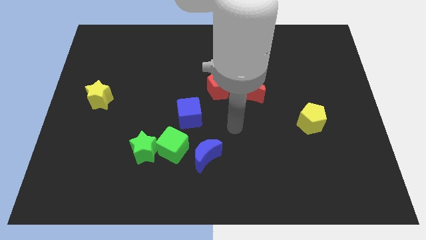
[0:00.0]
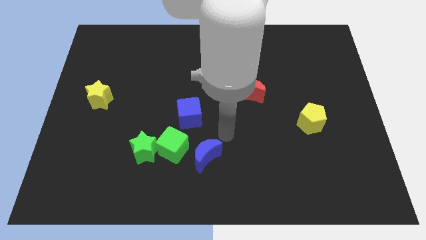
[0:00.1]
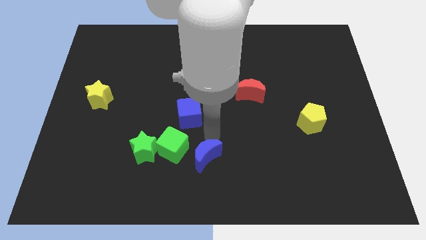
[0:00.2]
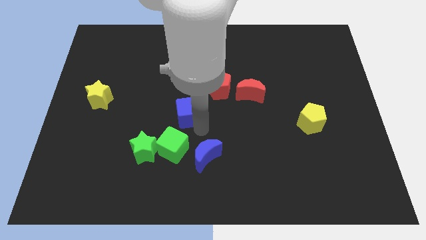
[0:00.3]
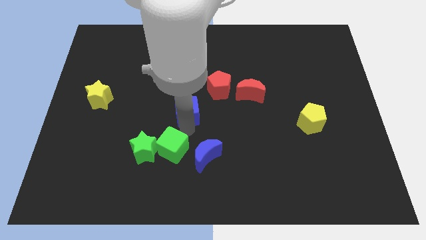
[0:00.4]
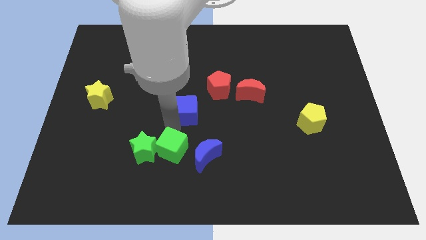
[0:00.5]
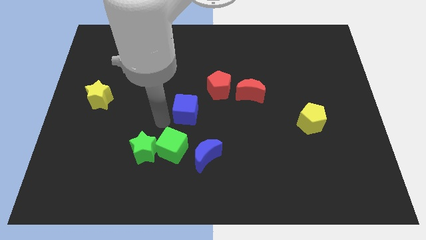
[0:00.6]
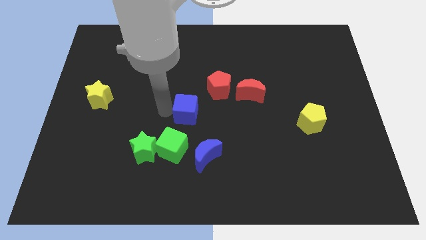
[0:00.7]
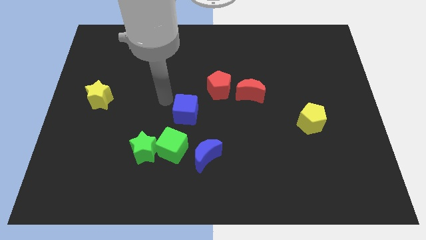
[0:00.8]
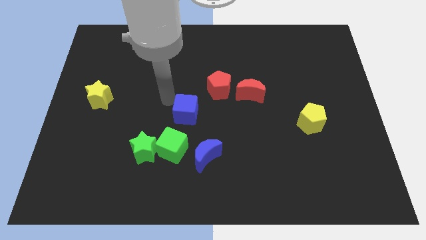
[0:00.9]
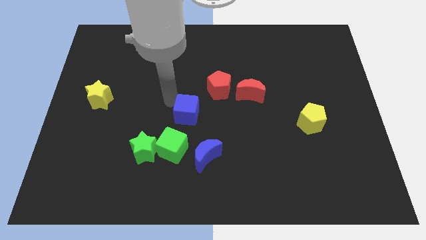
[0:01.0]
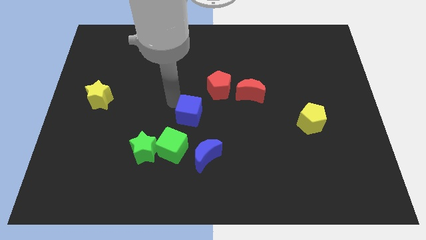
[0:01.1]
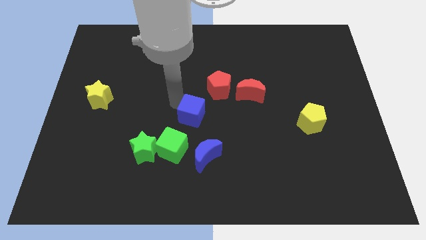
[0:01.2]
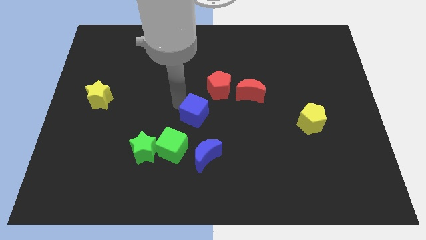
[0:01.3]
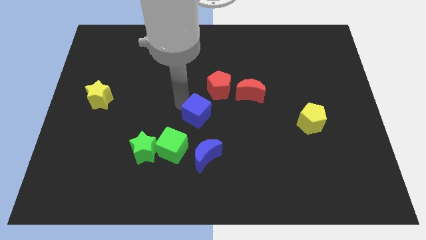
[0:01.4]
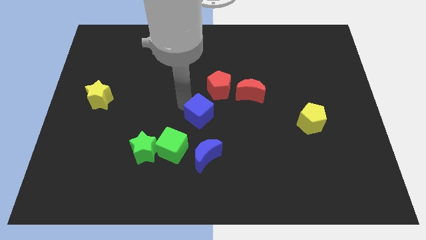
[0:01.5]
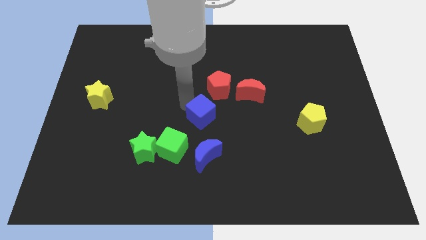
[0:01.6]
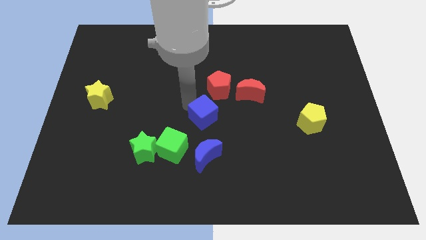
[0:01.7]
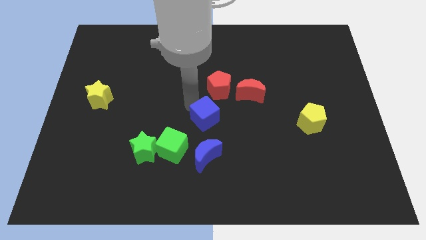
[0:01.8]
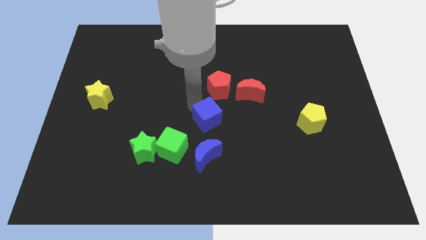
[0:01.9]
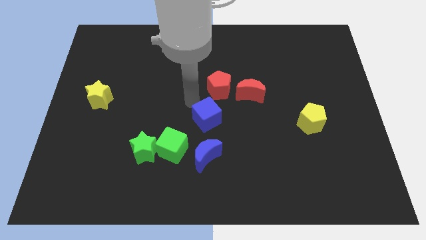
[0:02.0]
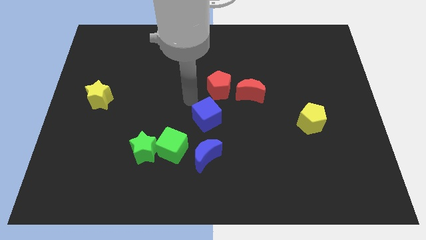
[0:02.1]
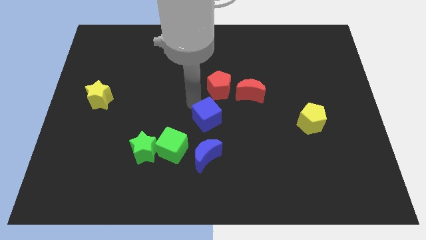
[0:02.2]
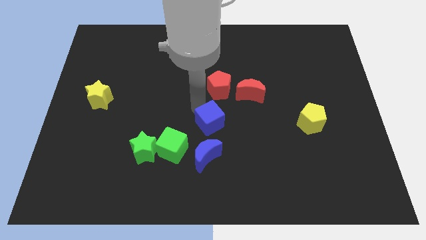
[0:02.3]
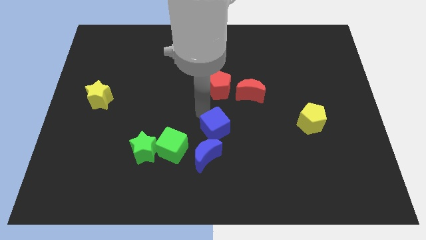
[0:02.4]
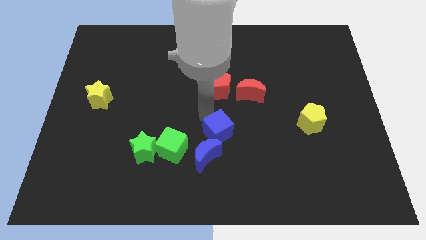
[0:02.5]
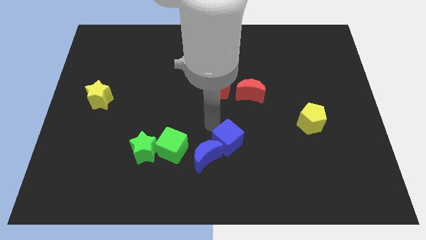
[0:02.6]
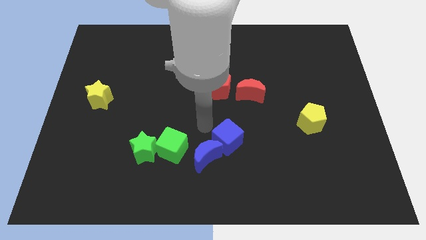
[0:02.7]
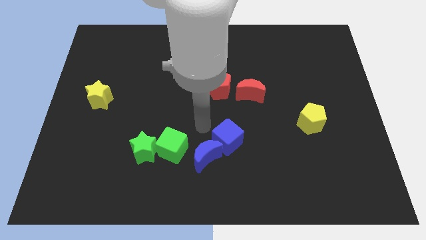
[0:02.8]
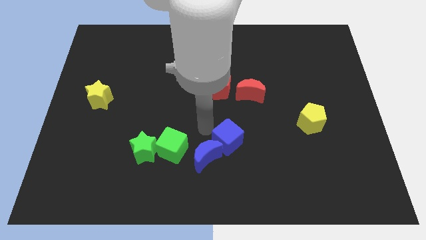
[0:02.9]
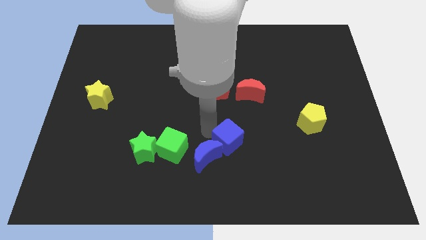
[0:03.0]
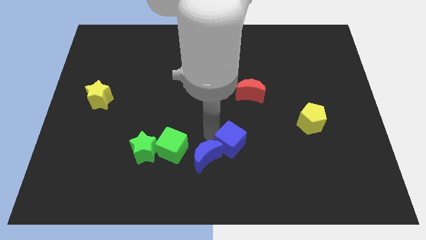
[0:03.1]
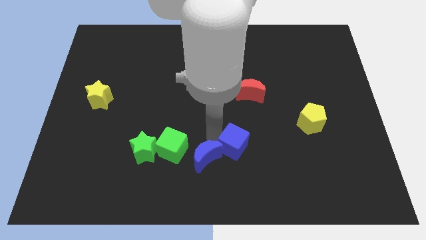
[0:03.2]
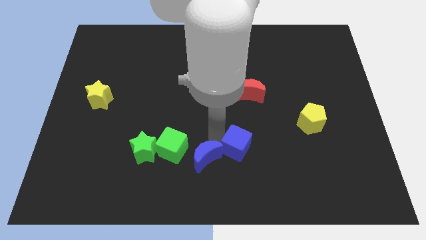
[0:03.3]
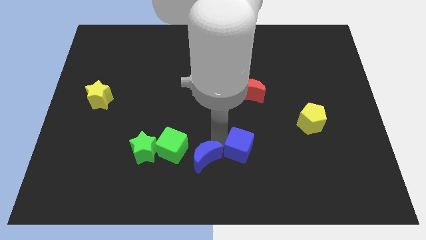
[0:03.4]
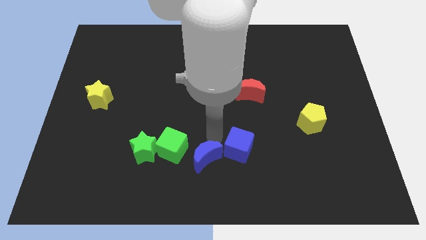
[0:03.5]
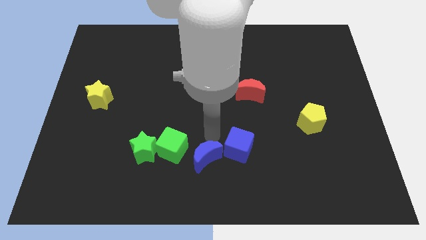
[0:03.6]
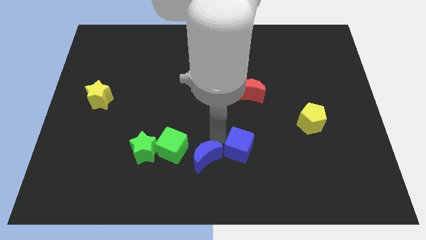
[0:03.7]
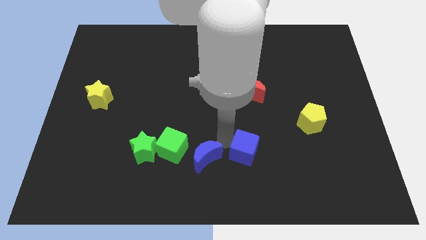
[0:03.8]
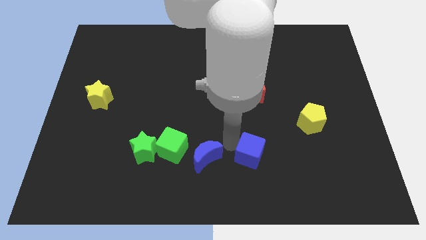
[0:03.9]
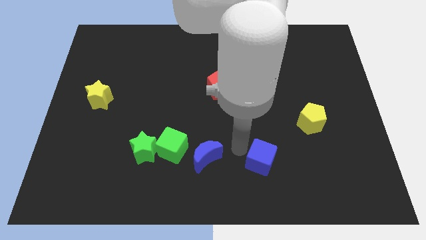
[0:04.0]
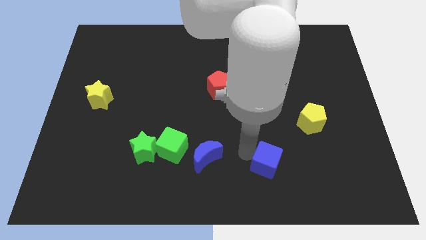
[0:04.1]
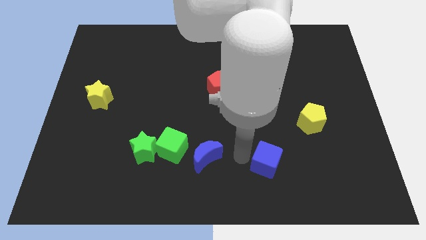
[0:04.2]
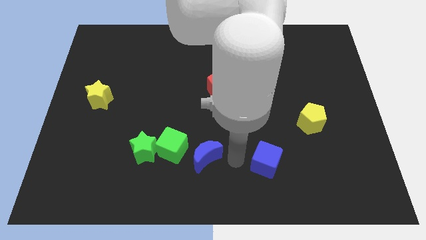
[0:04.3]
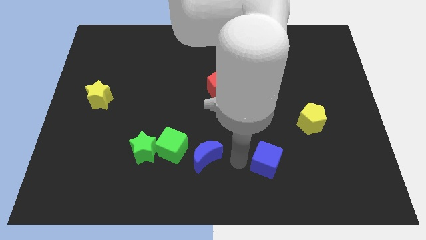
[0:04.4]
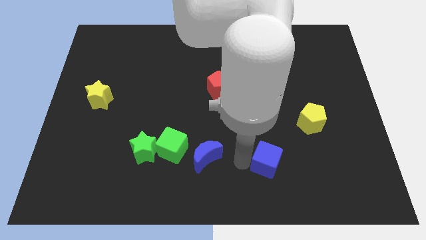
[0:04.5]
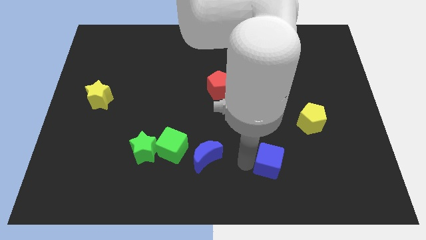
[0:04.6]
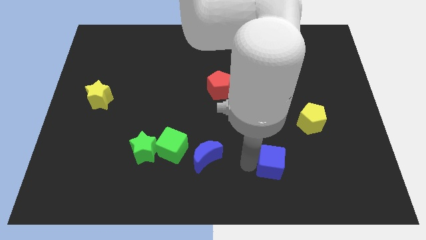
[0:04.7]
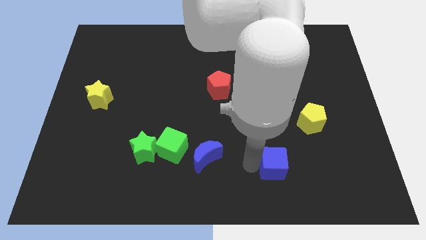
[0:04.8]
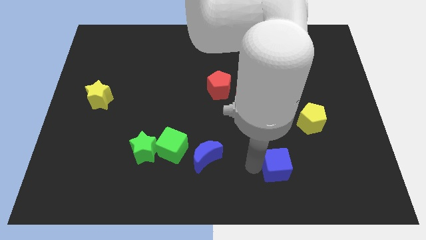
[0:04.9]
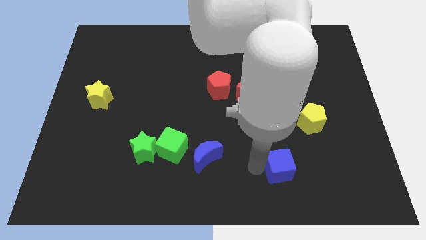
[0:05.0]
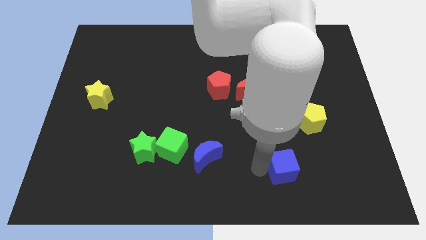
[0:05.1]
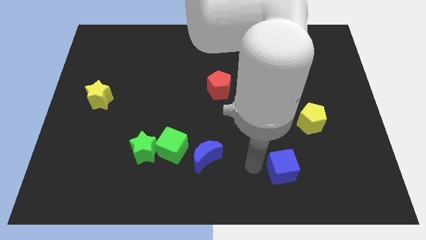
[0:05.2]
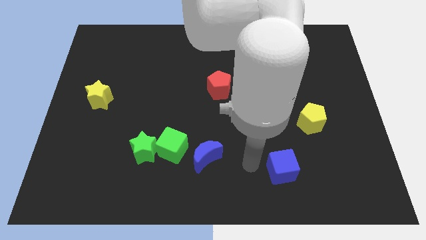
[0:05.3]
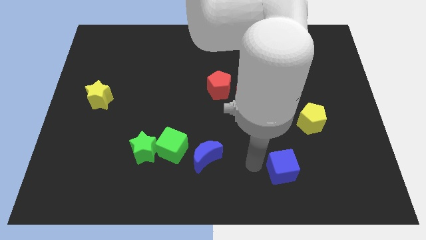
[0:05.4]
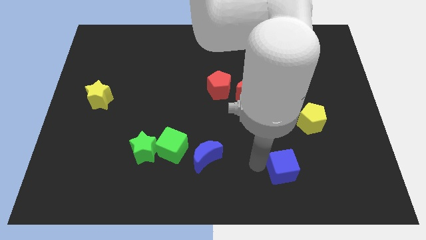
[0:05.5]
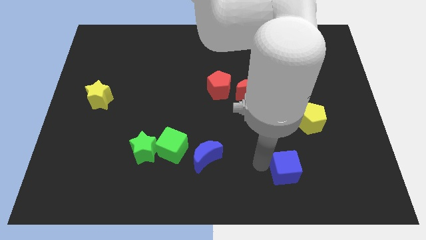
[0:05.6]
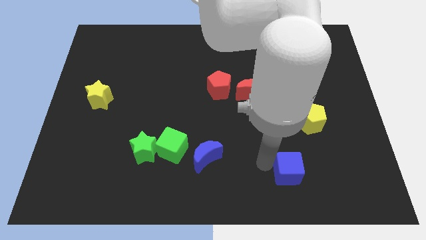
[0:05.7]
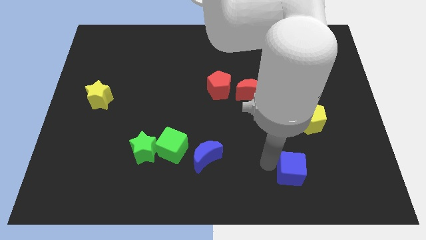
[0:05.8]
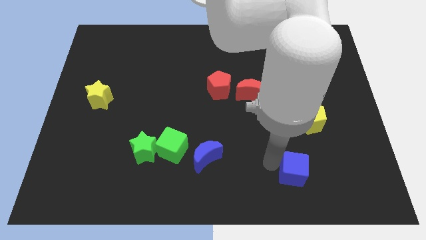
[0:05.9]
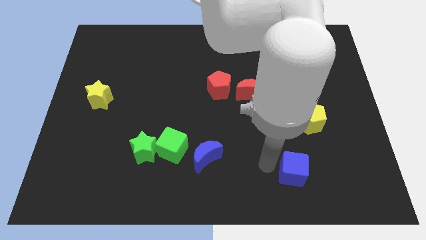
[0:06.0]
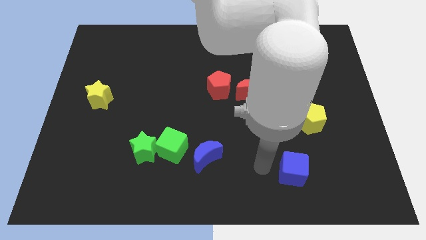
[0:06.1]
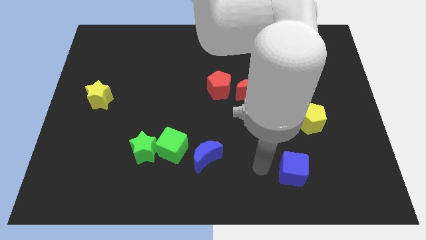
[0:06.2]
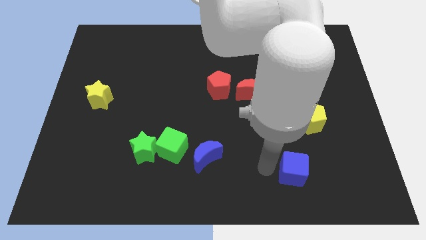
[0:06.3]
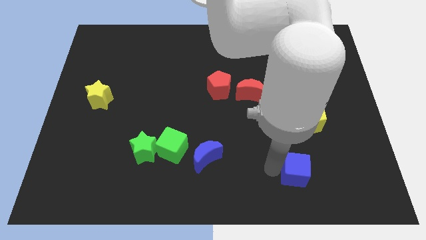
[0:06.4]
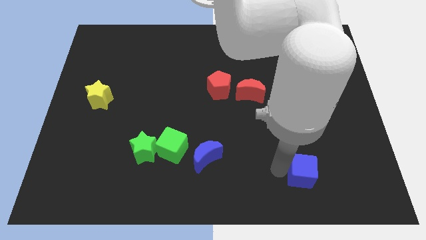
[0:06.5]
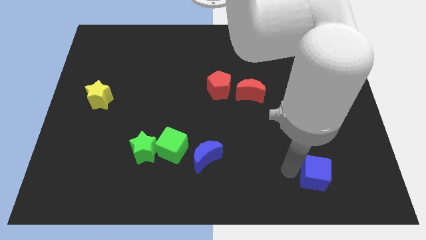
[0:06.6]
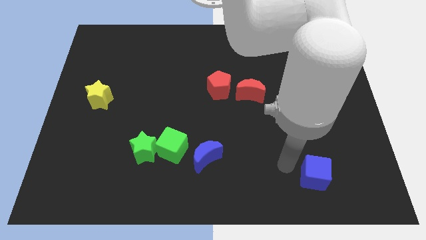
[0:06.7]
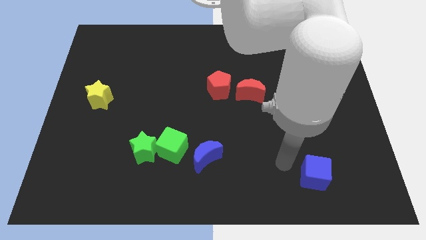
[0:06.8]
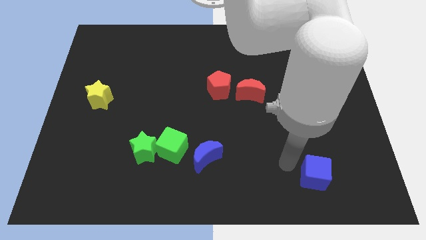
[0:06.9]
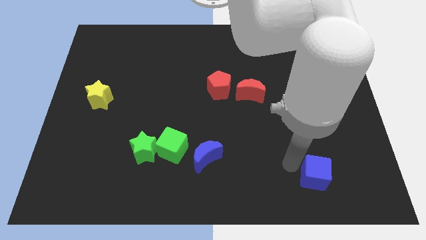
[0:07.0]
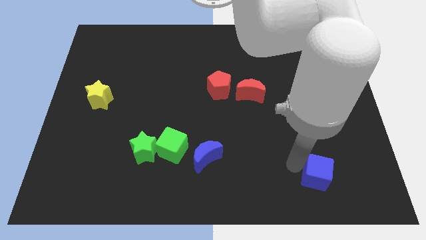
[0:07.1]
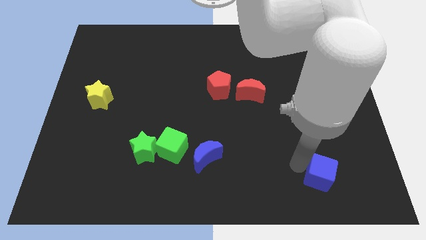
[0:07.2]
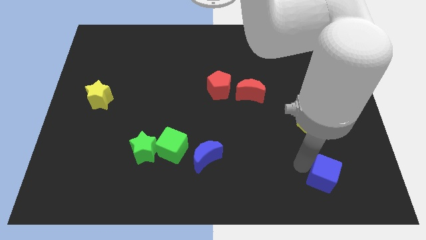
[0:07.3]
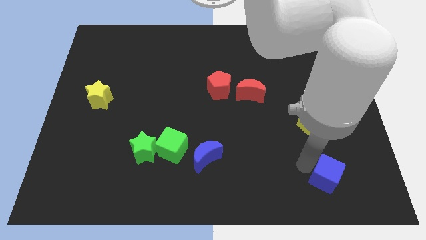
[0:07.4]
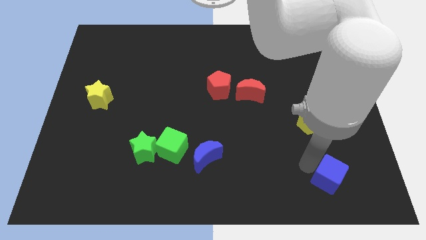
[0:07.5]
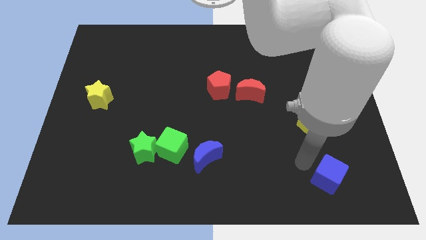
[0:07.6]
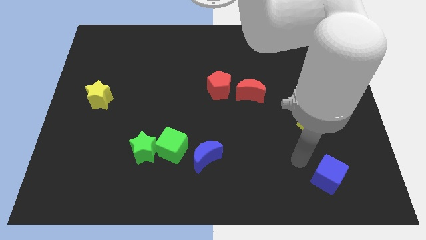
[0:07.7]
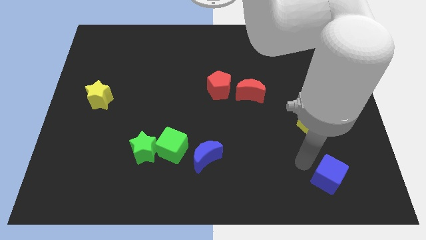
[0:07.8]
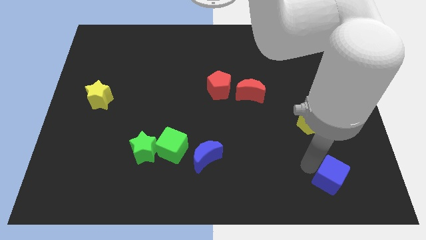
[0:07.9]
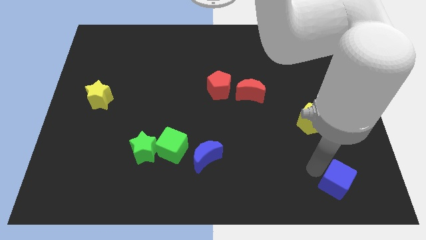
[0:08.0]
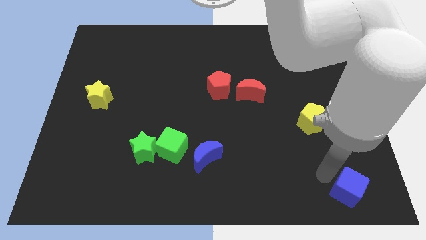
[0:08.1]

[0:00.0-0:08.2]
put the blue cube to the bottom right
